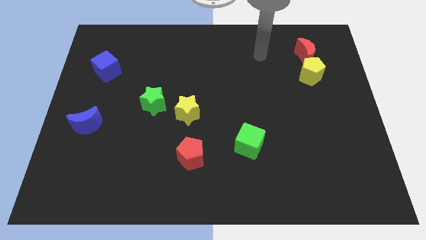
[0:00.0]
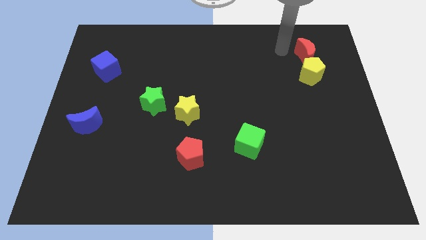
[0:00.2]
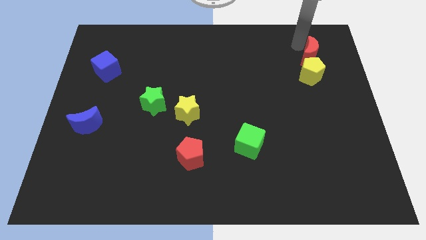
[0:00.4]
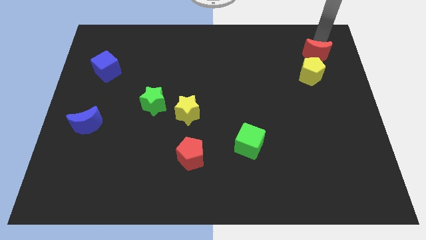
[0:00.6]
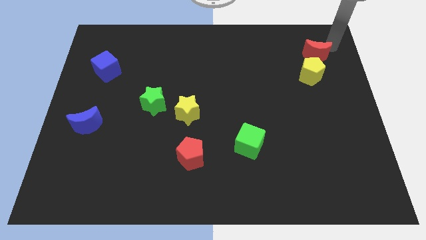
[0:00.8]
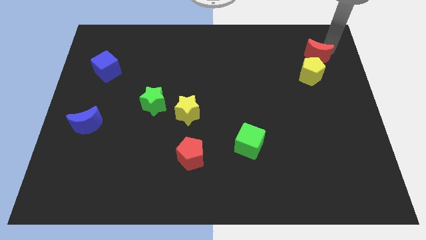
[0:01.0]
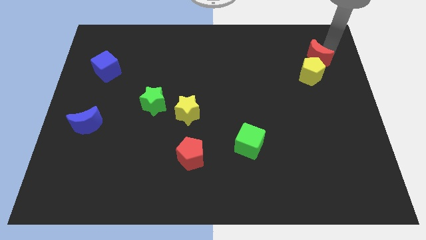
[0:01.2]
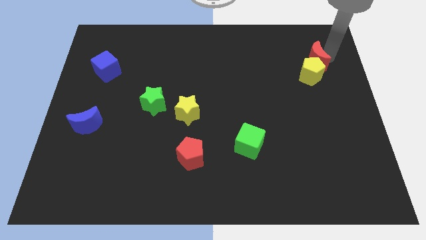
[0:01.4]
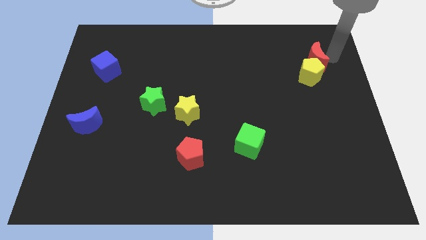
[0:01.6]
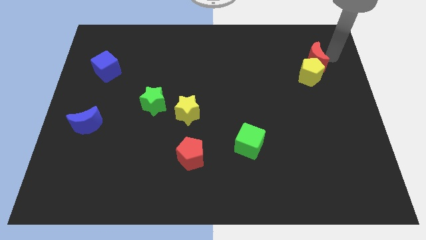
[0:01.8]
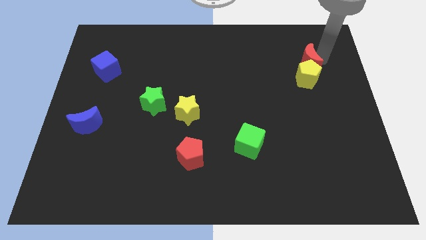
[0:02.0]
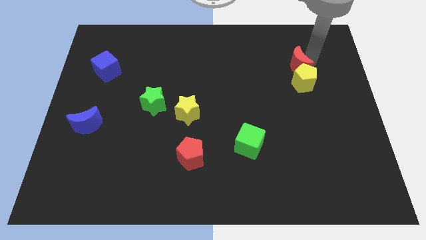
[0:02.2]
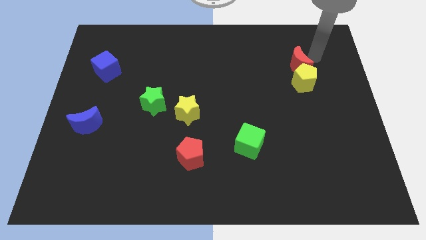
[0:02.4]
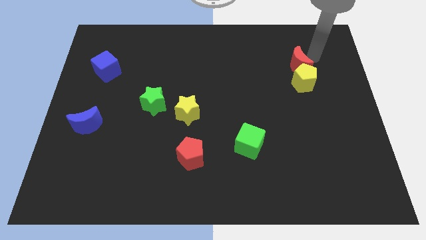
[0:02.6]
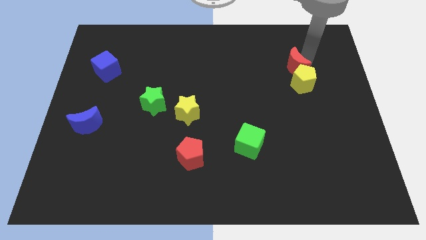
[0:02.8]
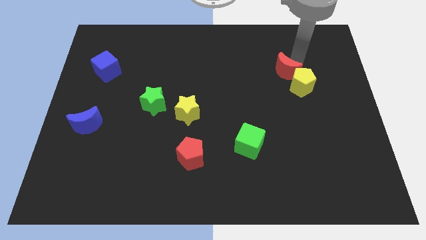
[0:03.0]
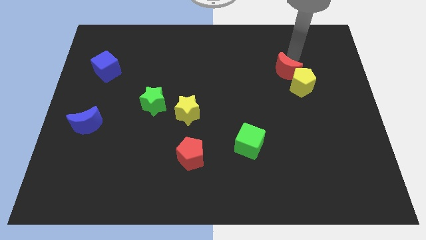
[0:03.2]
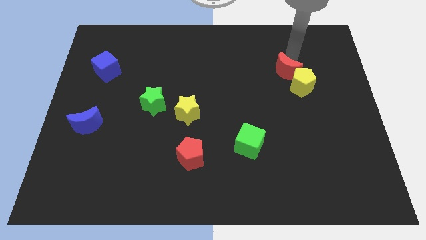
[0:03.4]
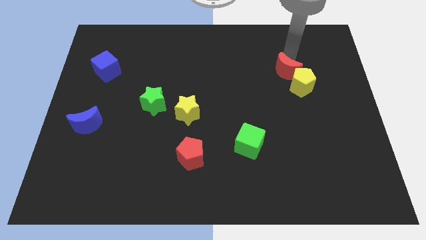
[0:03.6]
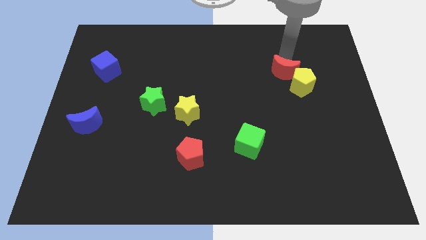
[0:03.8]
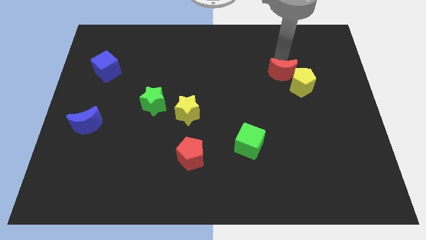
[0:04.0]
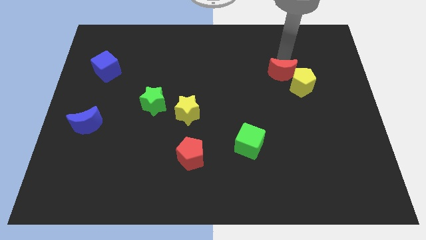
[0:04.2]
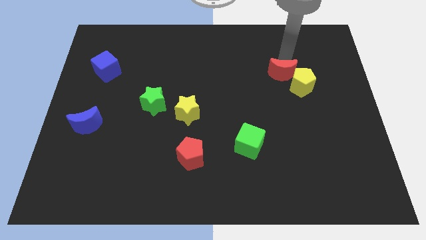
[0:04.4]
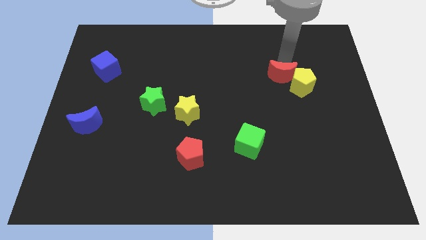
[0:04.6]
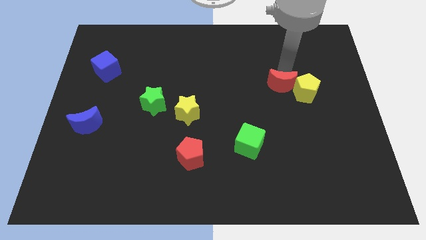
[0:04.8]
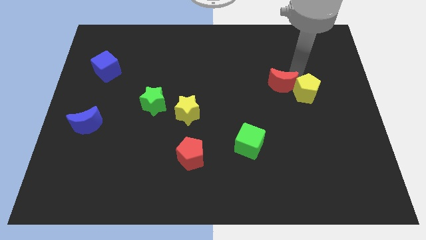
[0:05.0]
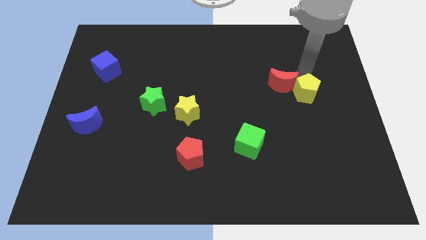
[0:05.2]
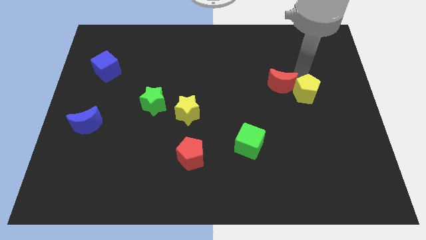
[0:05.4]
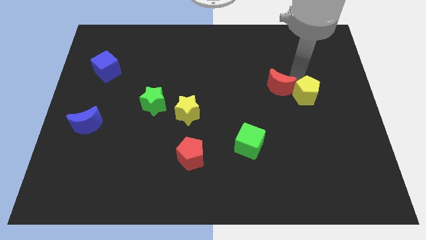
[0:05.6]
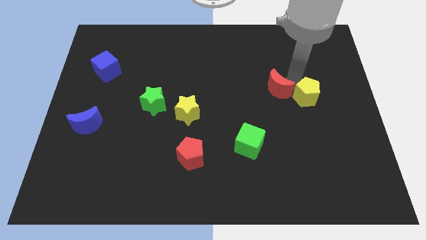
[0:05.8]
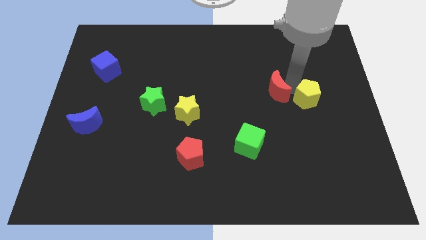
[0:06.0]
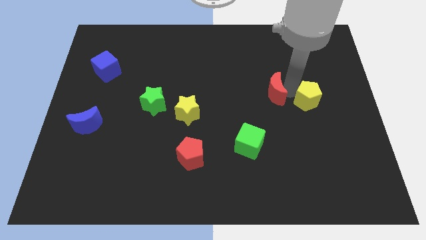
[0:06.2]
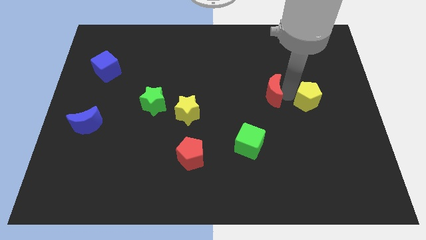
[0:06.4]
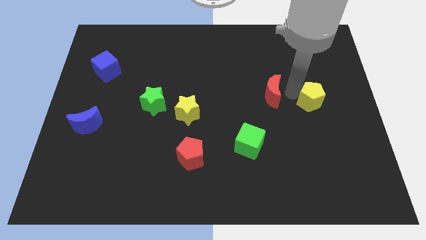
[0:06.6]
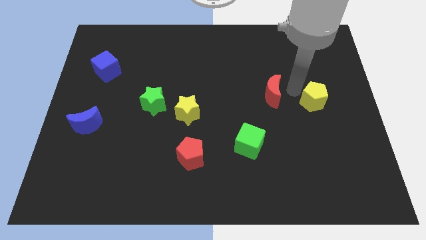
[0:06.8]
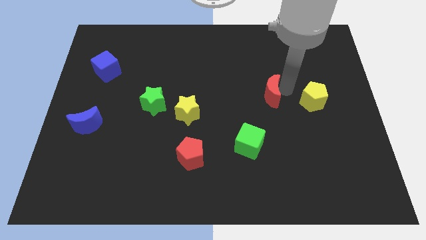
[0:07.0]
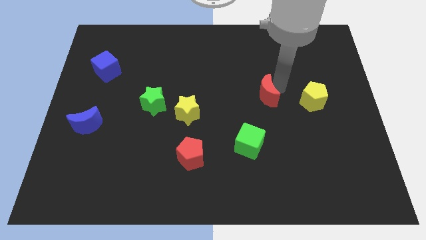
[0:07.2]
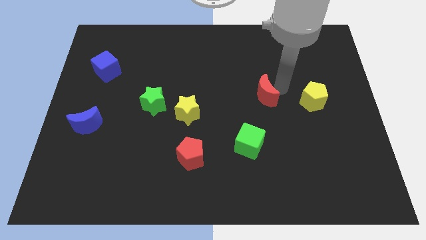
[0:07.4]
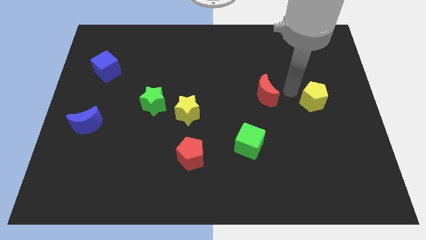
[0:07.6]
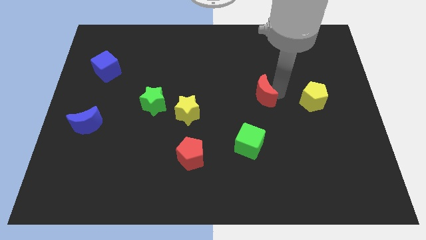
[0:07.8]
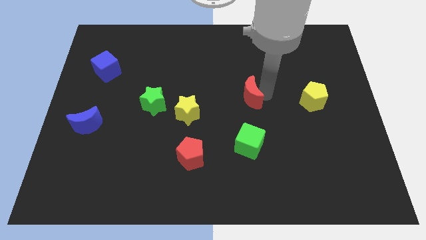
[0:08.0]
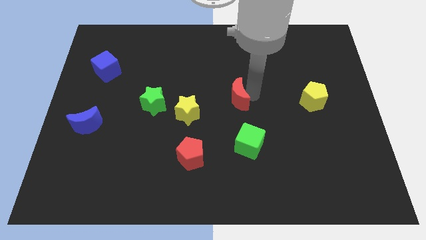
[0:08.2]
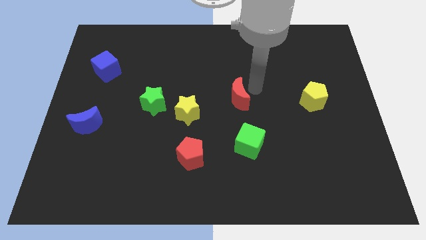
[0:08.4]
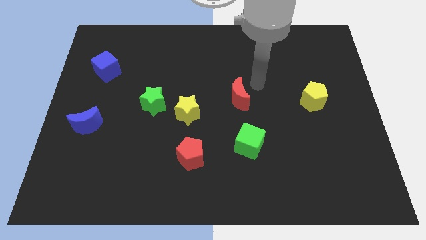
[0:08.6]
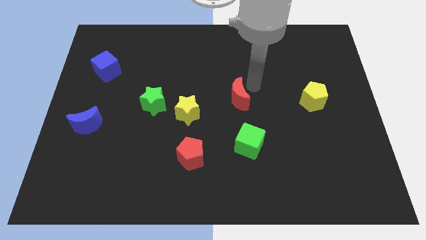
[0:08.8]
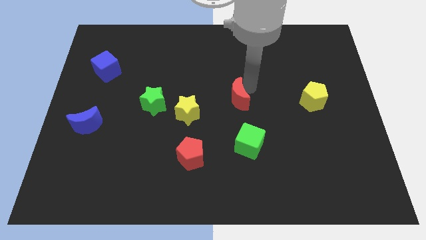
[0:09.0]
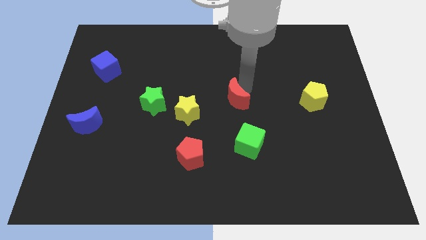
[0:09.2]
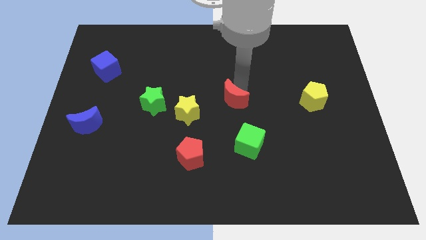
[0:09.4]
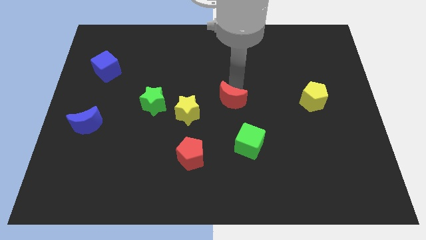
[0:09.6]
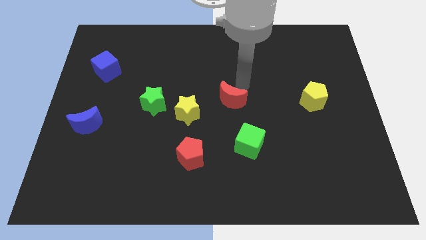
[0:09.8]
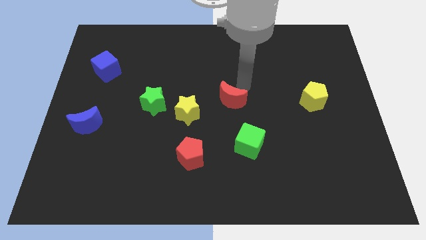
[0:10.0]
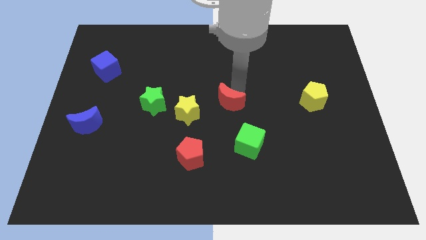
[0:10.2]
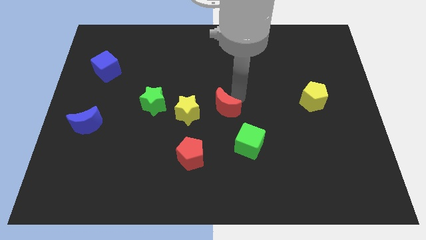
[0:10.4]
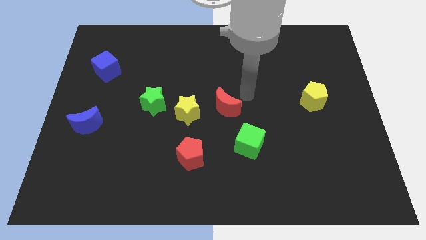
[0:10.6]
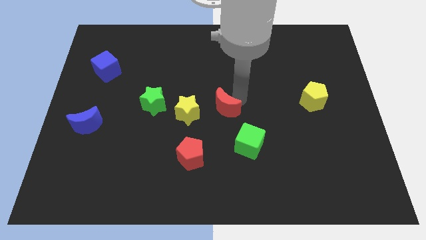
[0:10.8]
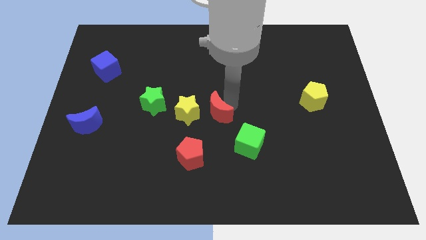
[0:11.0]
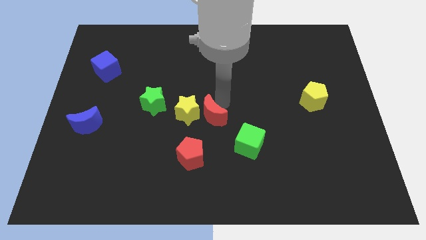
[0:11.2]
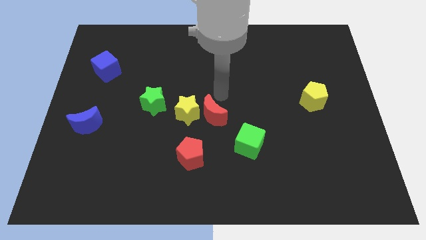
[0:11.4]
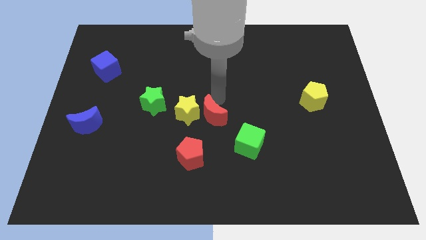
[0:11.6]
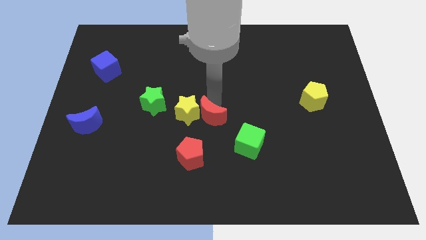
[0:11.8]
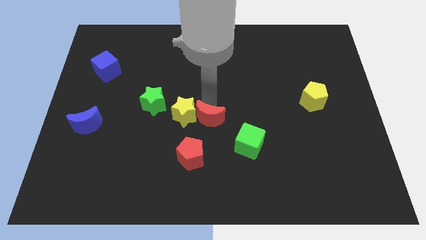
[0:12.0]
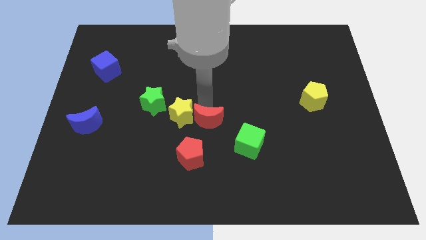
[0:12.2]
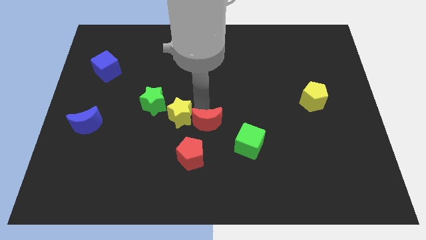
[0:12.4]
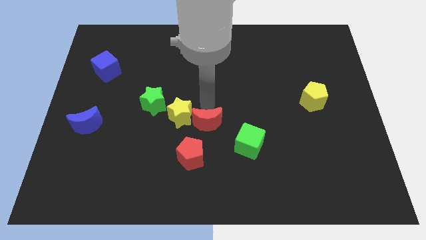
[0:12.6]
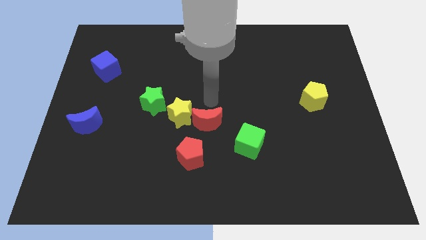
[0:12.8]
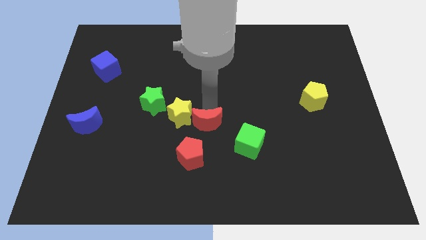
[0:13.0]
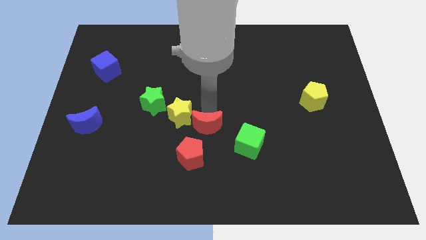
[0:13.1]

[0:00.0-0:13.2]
slide the red moon to the left of the green cube
